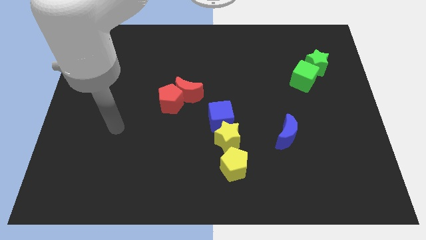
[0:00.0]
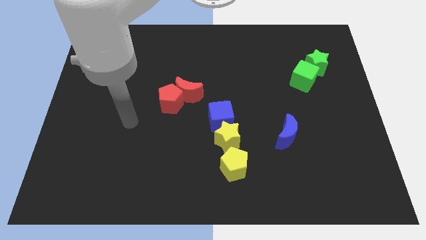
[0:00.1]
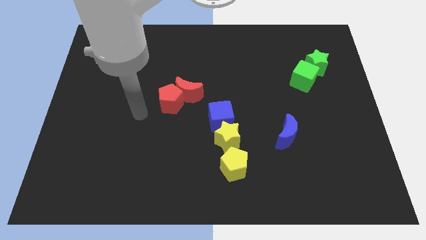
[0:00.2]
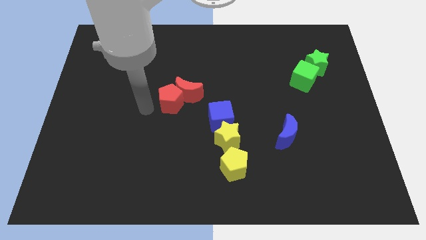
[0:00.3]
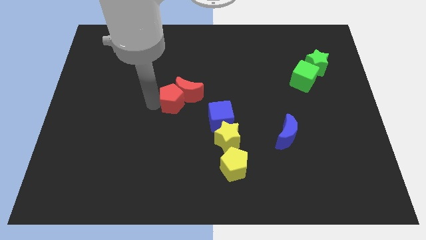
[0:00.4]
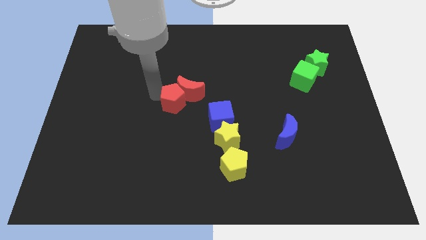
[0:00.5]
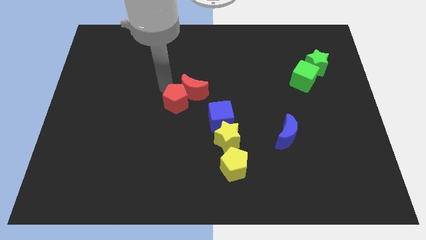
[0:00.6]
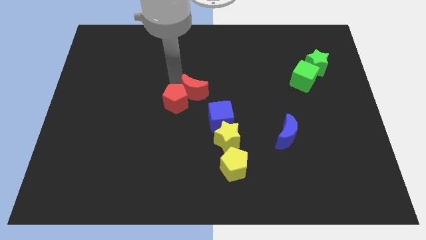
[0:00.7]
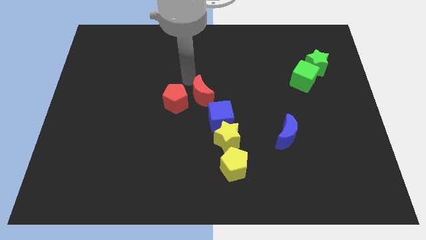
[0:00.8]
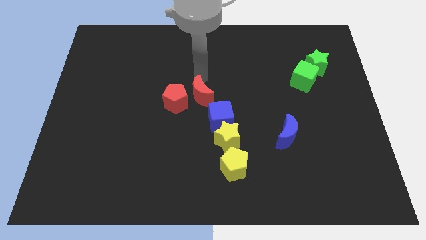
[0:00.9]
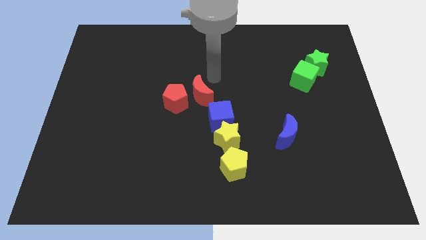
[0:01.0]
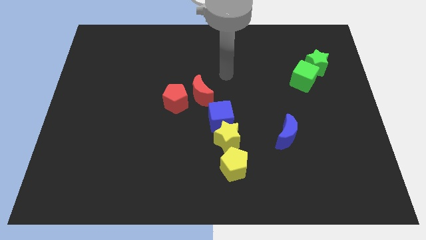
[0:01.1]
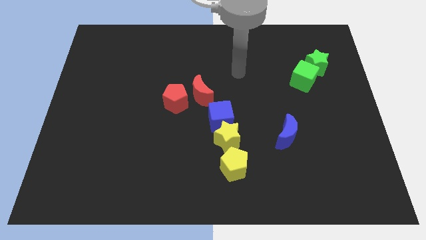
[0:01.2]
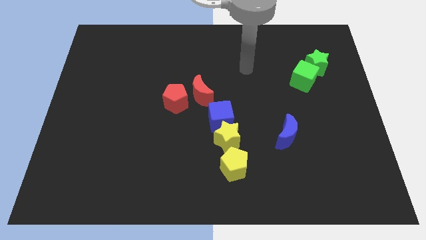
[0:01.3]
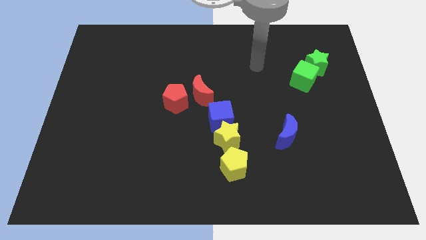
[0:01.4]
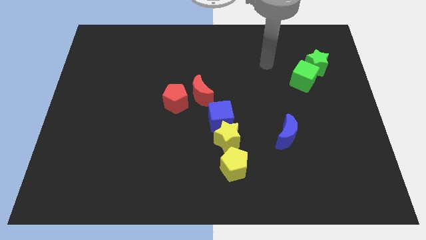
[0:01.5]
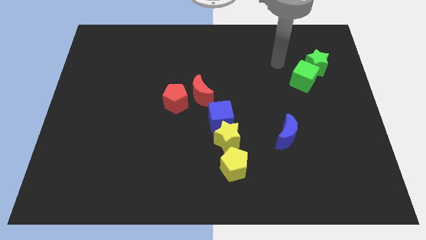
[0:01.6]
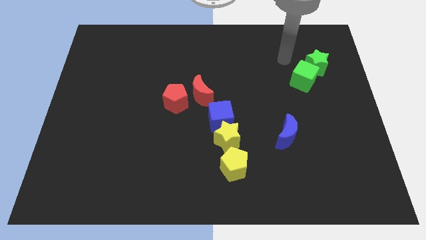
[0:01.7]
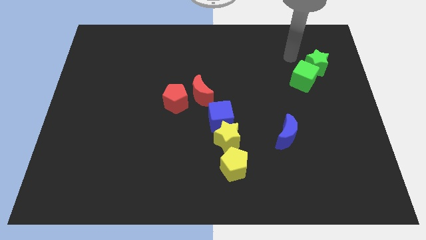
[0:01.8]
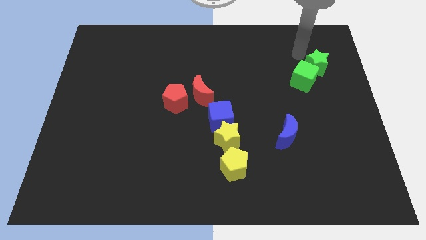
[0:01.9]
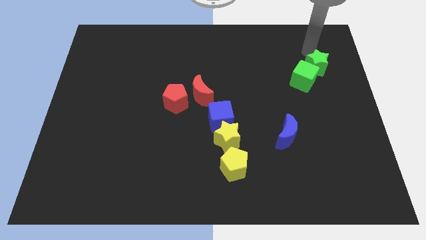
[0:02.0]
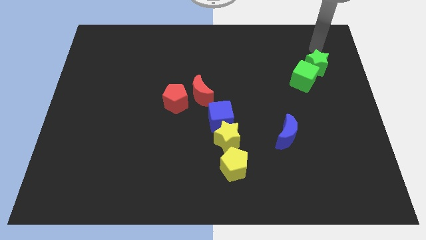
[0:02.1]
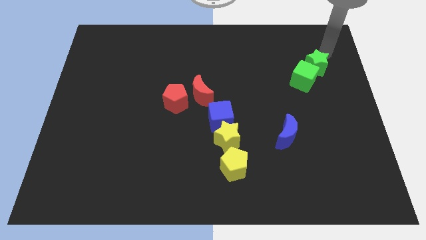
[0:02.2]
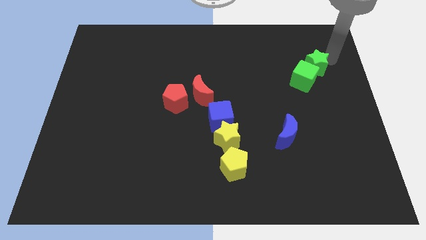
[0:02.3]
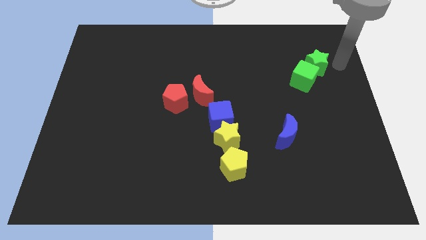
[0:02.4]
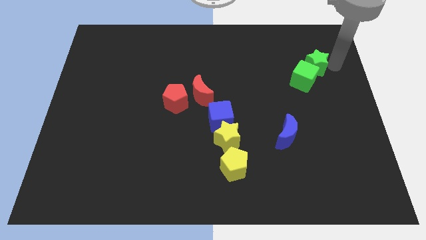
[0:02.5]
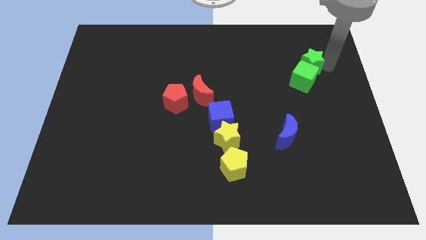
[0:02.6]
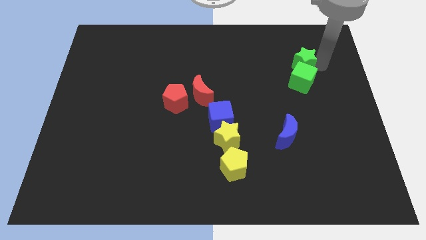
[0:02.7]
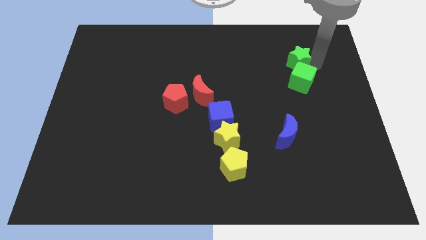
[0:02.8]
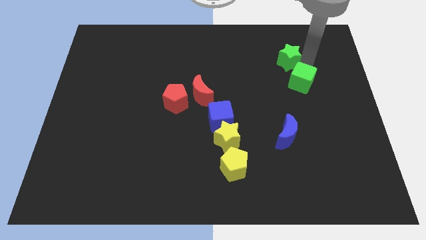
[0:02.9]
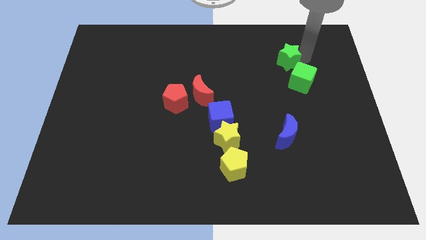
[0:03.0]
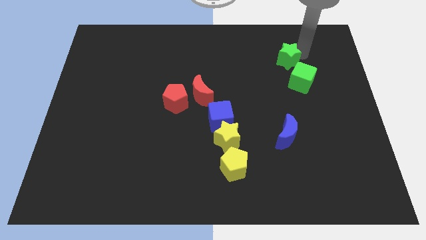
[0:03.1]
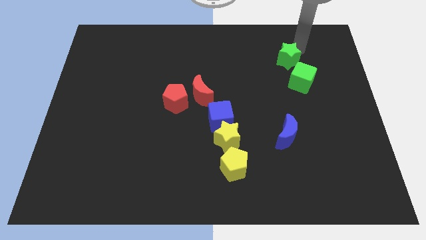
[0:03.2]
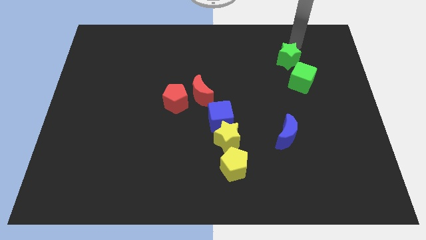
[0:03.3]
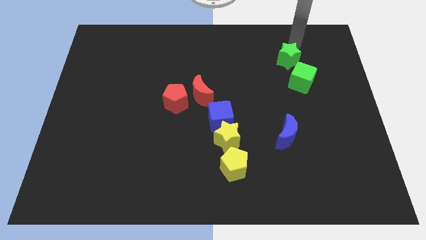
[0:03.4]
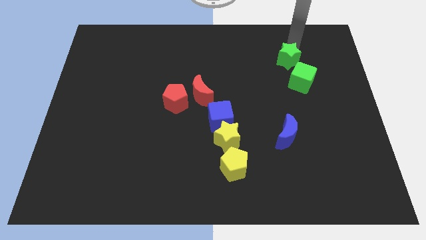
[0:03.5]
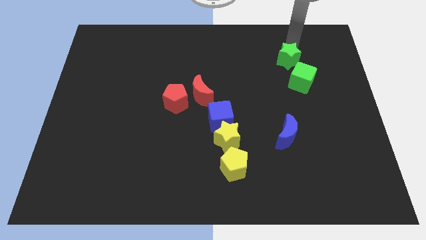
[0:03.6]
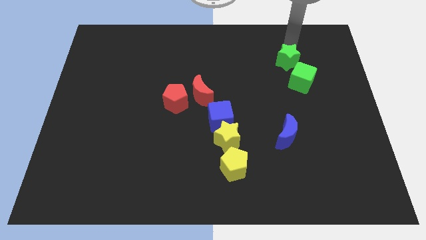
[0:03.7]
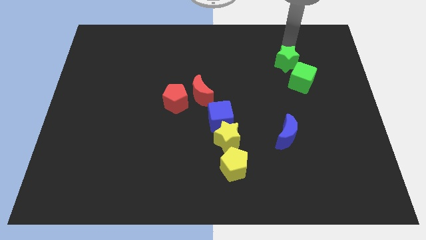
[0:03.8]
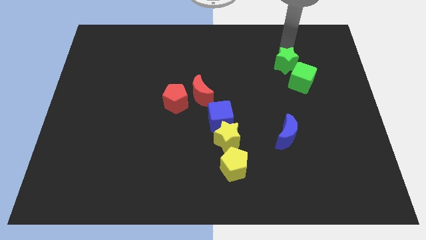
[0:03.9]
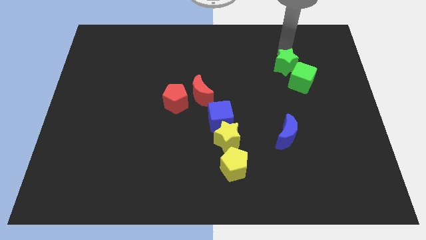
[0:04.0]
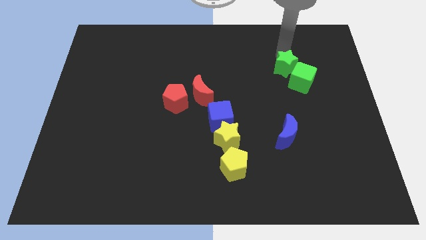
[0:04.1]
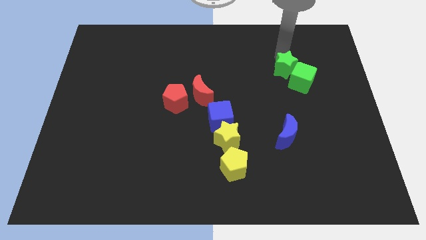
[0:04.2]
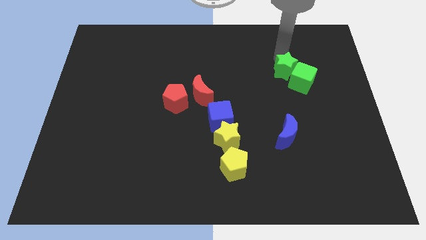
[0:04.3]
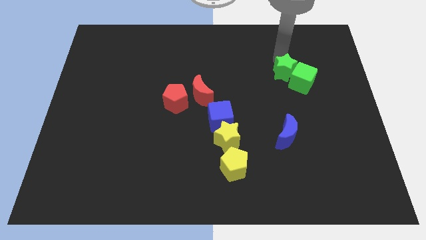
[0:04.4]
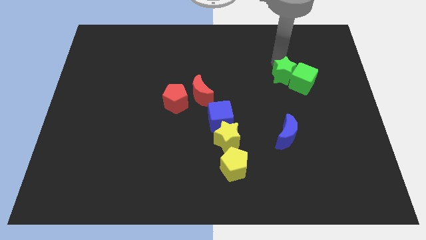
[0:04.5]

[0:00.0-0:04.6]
move the green star diagonally down and to the left a bit

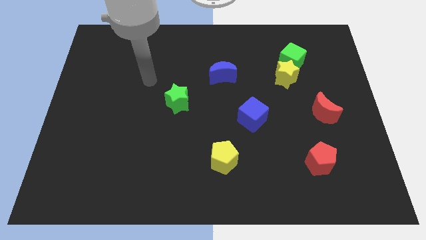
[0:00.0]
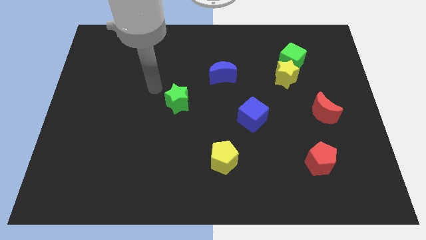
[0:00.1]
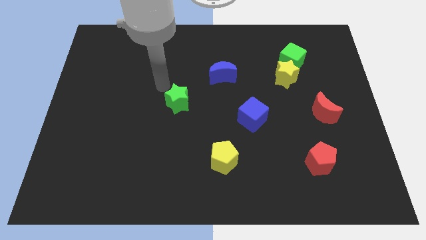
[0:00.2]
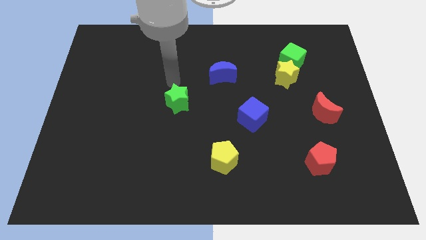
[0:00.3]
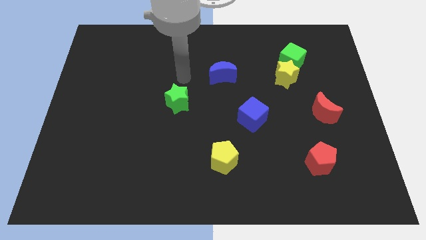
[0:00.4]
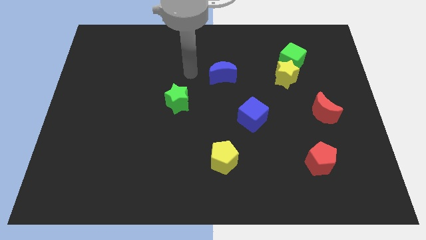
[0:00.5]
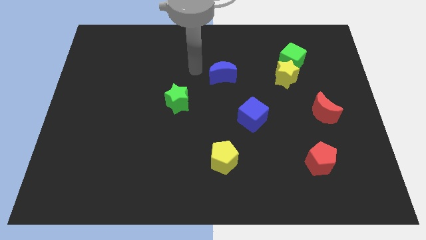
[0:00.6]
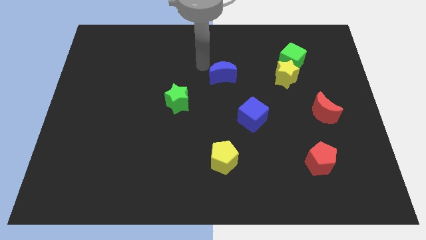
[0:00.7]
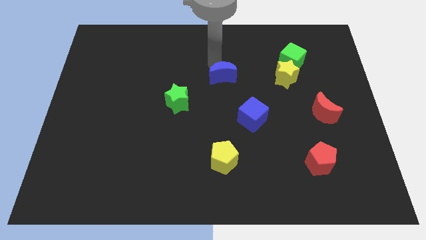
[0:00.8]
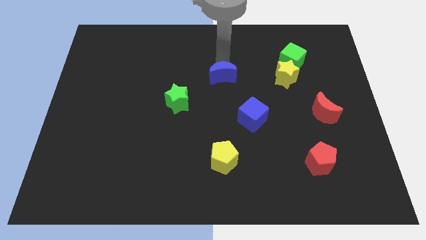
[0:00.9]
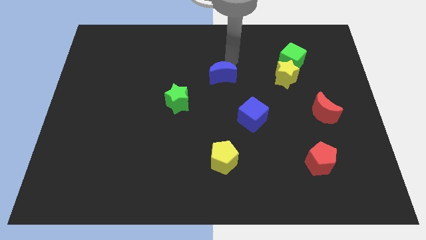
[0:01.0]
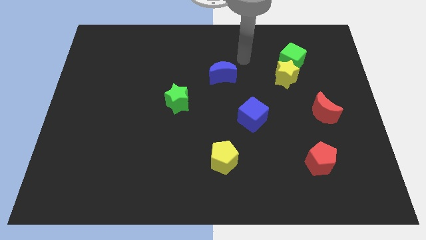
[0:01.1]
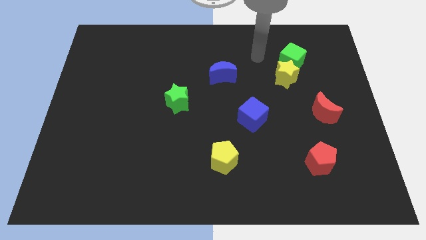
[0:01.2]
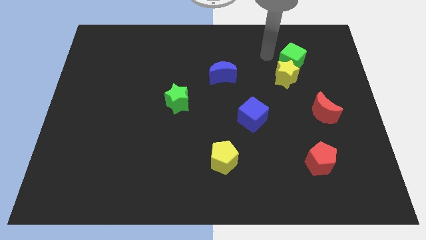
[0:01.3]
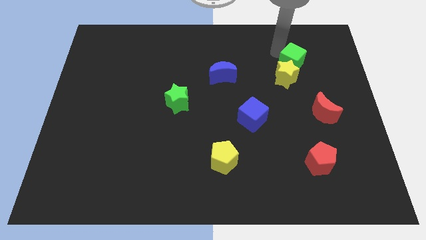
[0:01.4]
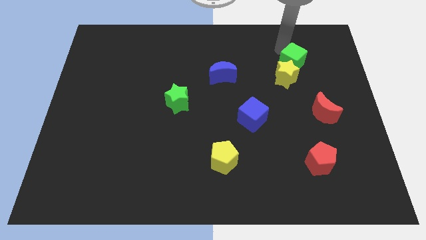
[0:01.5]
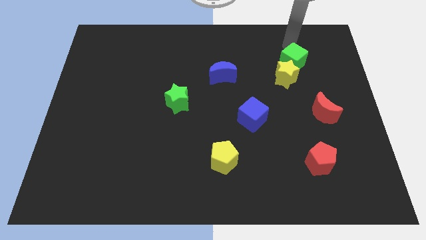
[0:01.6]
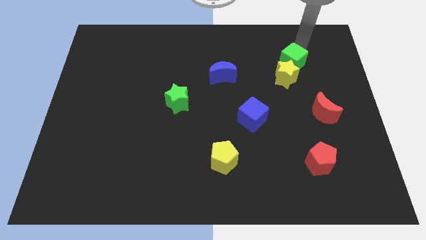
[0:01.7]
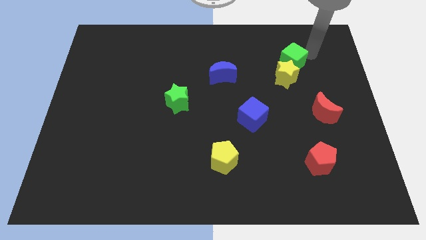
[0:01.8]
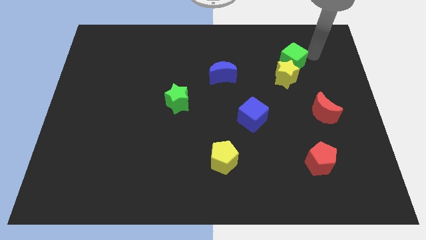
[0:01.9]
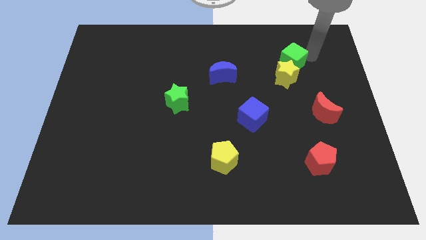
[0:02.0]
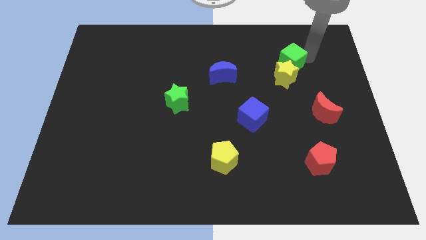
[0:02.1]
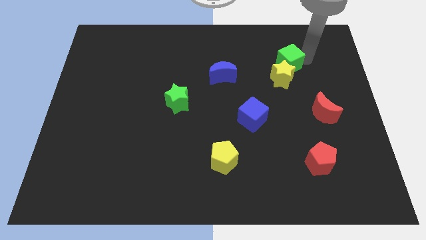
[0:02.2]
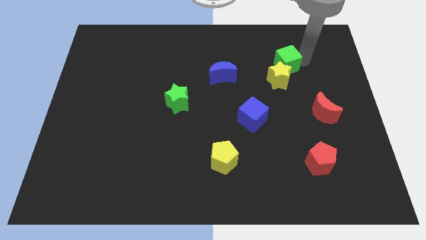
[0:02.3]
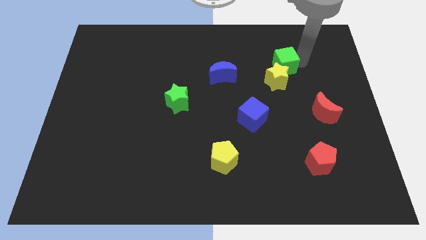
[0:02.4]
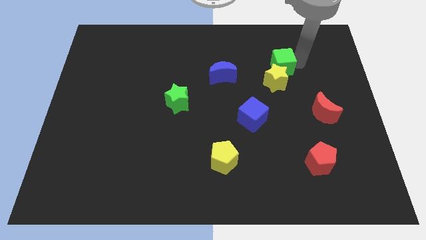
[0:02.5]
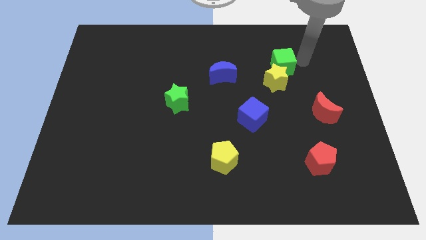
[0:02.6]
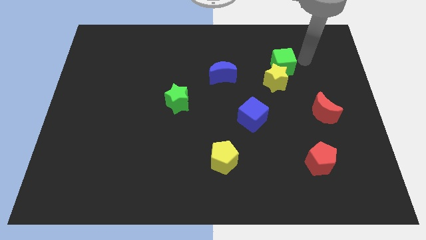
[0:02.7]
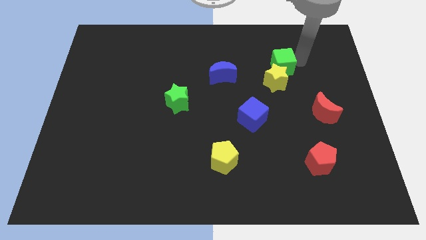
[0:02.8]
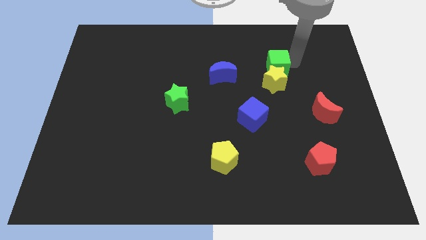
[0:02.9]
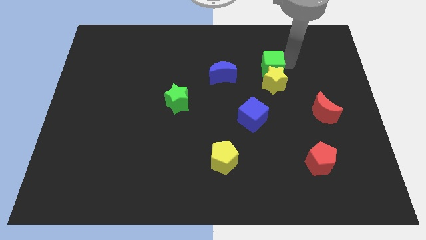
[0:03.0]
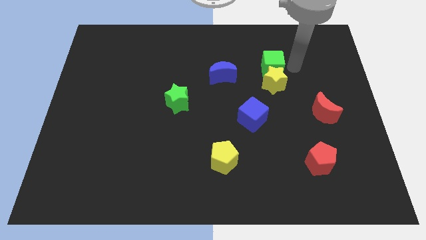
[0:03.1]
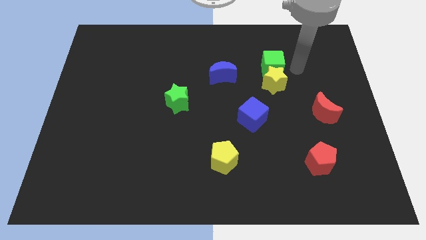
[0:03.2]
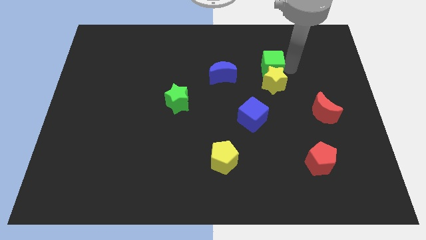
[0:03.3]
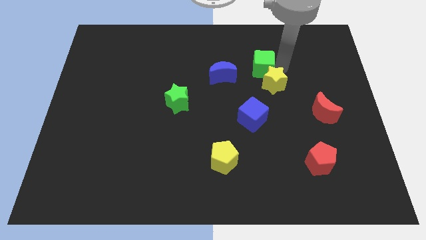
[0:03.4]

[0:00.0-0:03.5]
slightly push the green cube to the left

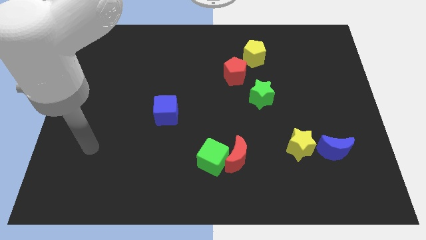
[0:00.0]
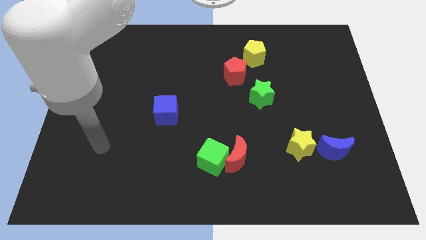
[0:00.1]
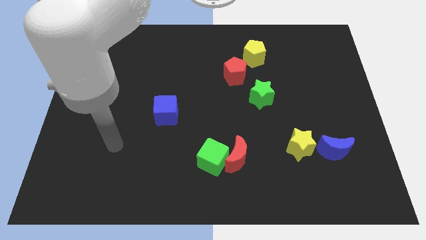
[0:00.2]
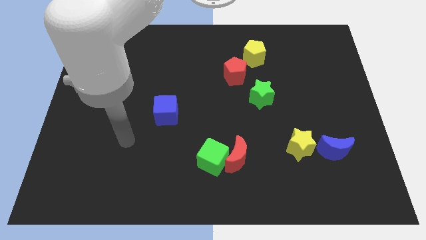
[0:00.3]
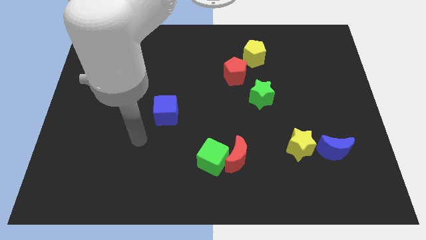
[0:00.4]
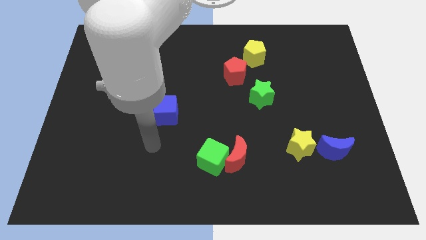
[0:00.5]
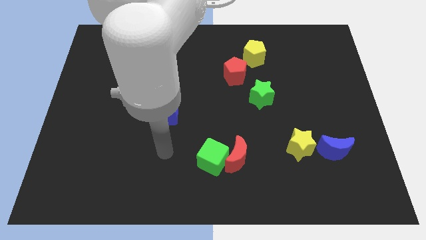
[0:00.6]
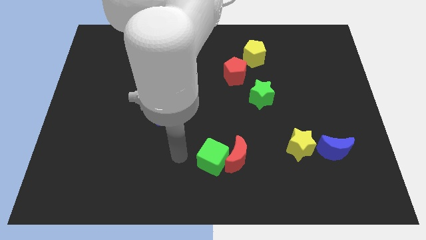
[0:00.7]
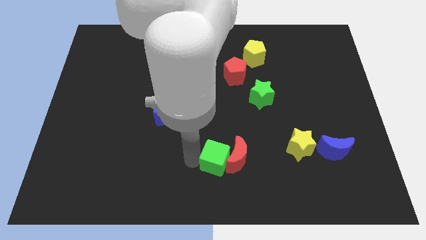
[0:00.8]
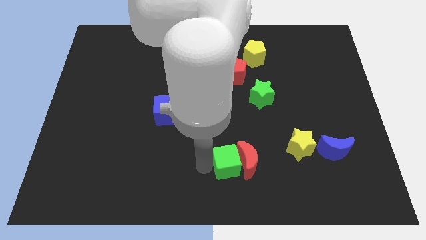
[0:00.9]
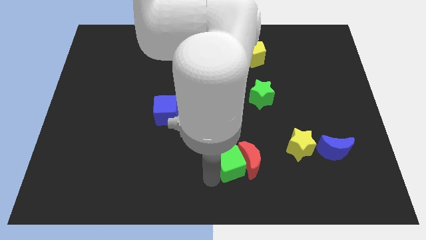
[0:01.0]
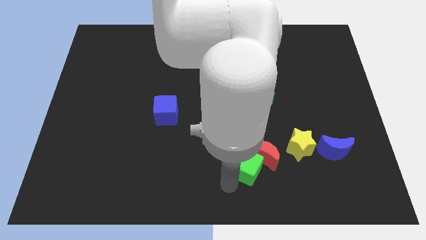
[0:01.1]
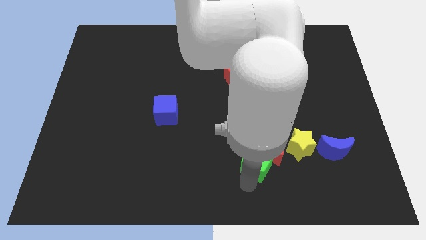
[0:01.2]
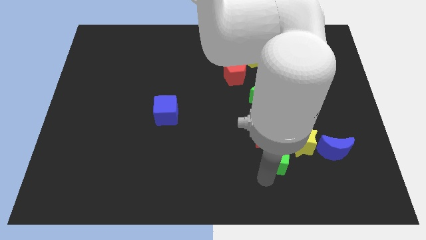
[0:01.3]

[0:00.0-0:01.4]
push the red moon a little bit upwards and to the right
